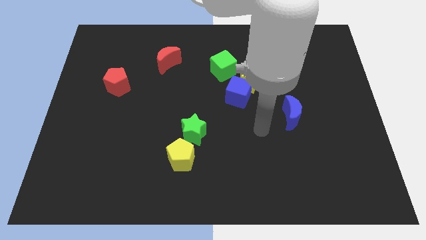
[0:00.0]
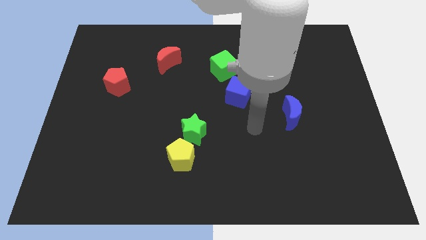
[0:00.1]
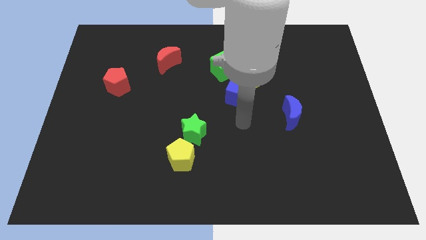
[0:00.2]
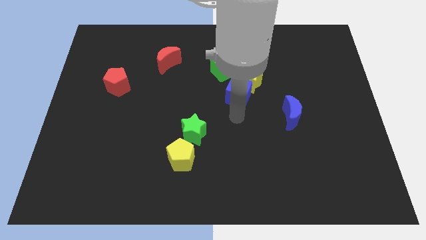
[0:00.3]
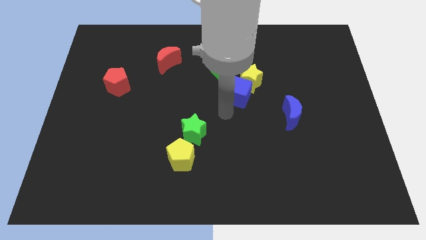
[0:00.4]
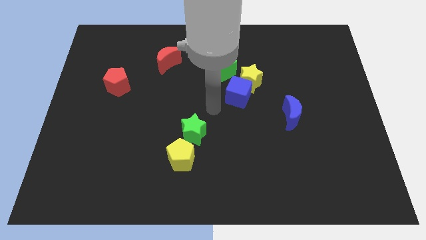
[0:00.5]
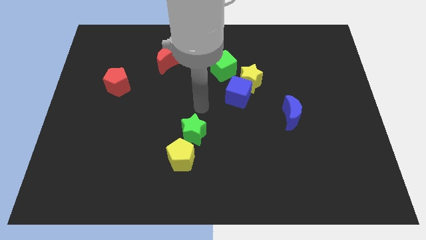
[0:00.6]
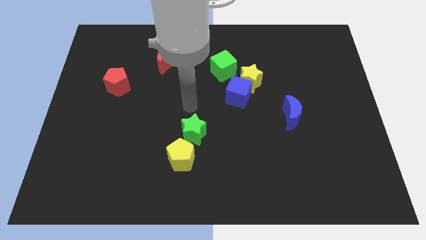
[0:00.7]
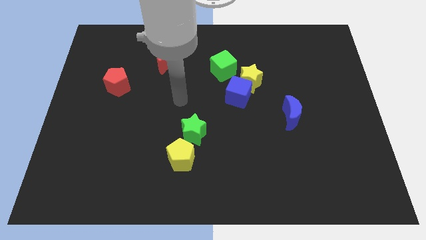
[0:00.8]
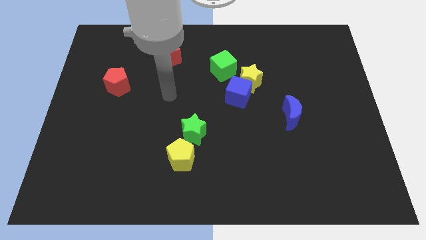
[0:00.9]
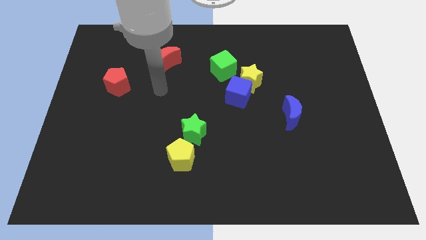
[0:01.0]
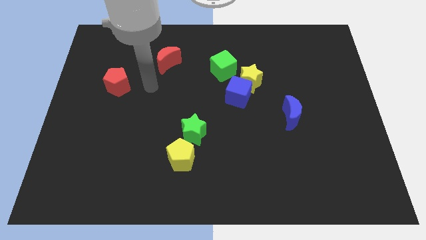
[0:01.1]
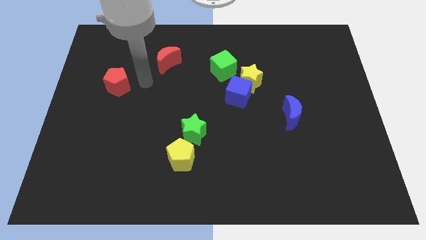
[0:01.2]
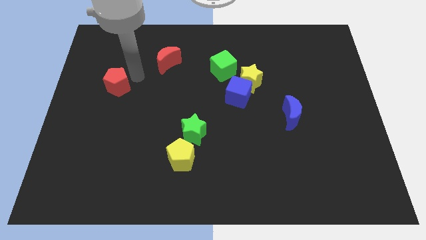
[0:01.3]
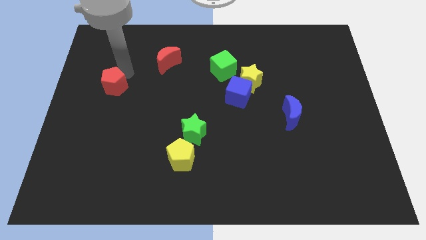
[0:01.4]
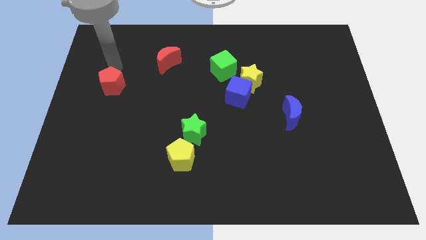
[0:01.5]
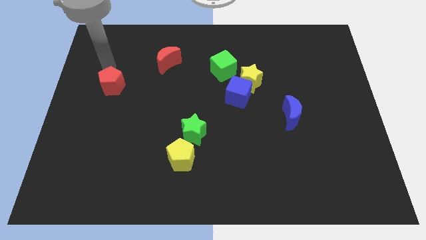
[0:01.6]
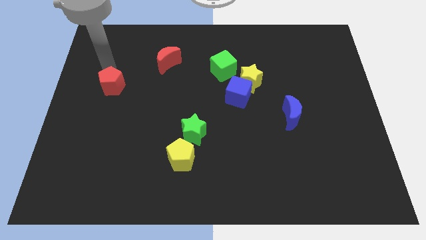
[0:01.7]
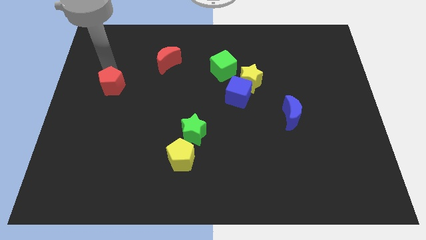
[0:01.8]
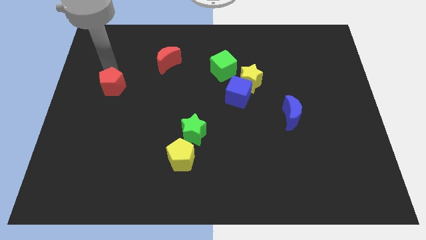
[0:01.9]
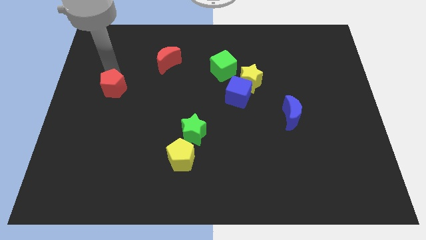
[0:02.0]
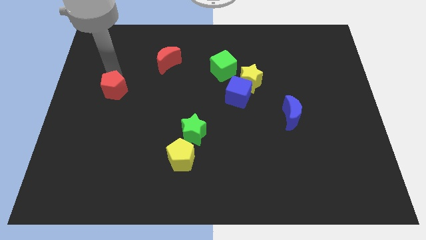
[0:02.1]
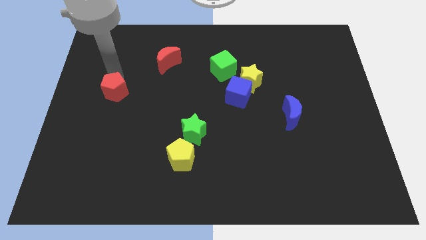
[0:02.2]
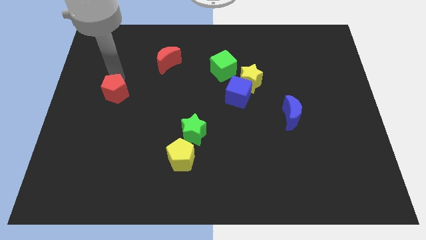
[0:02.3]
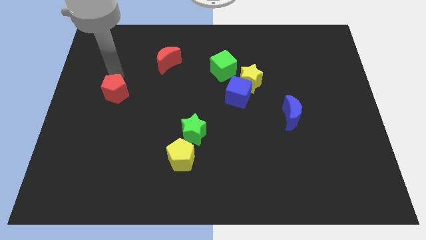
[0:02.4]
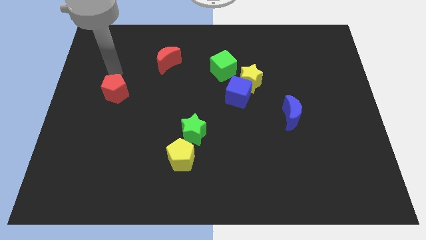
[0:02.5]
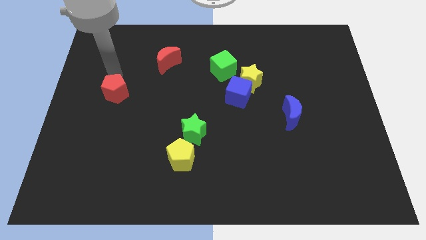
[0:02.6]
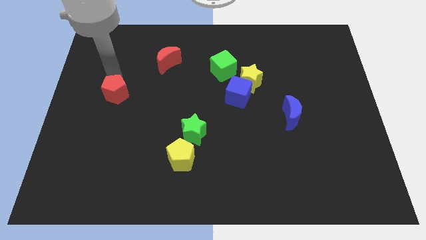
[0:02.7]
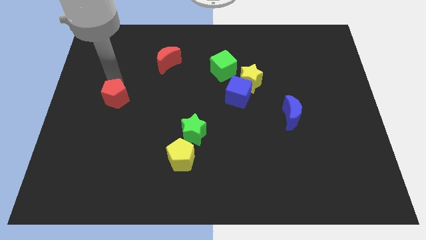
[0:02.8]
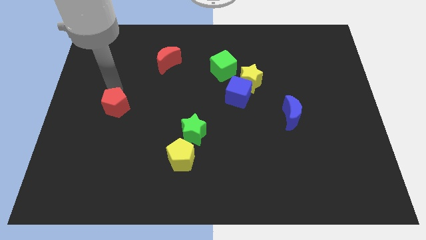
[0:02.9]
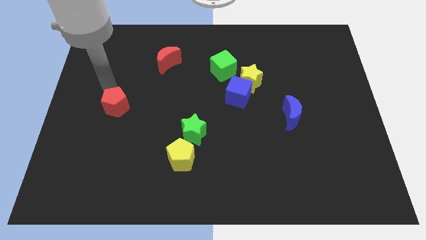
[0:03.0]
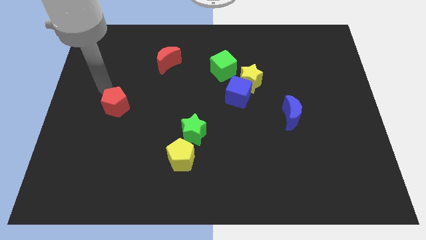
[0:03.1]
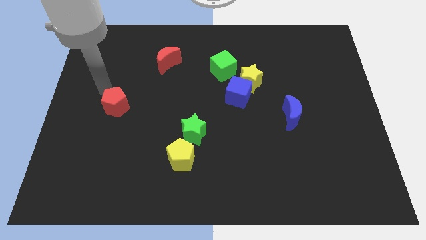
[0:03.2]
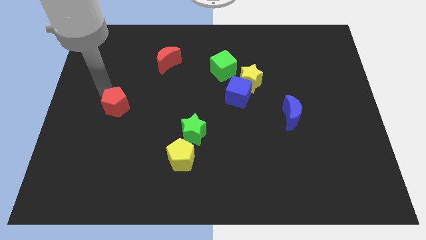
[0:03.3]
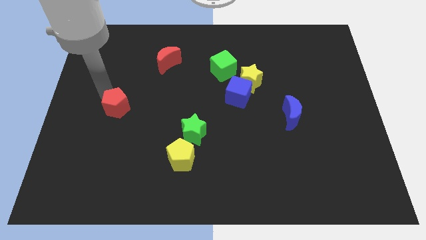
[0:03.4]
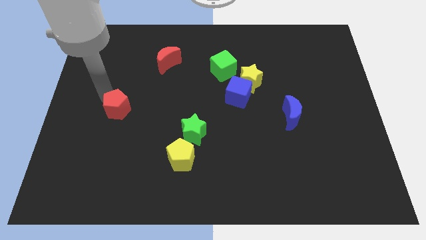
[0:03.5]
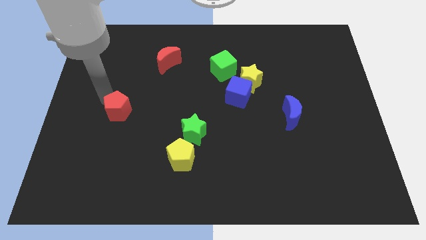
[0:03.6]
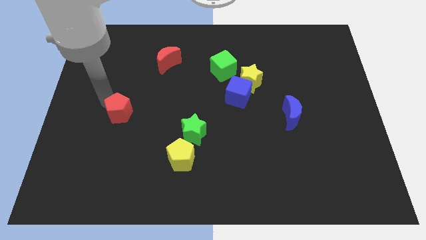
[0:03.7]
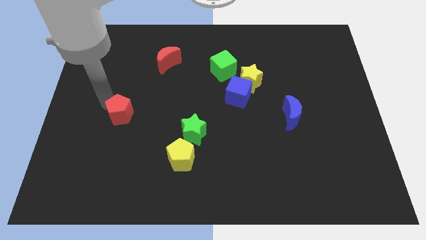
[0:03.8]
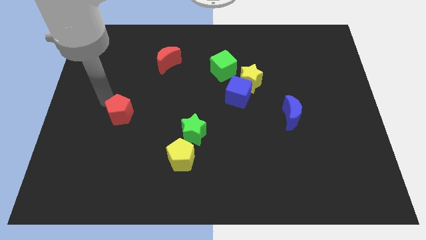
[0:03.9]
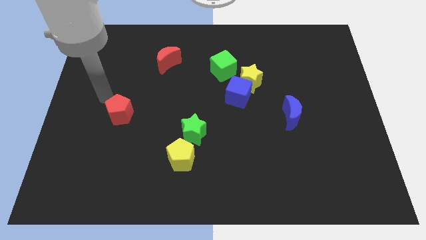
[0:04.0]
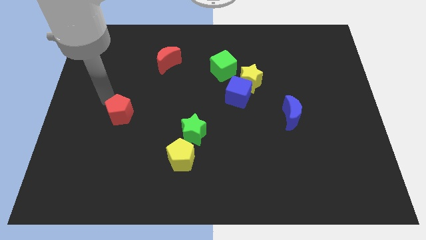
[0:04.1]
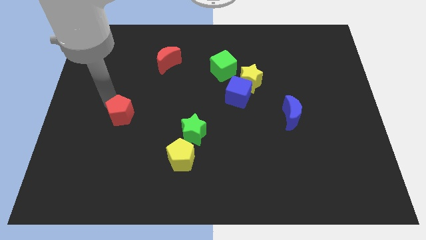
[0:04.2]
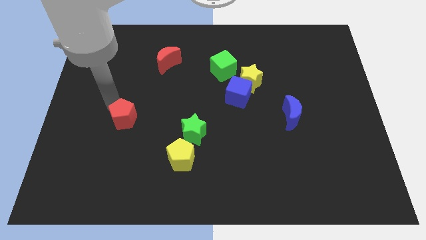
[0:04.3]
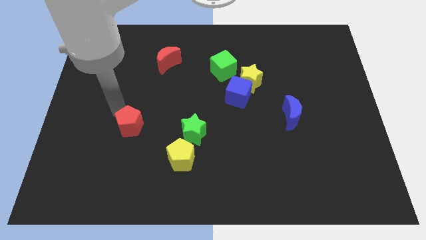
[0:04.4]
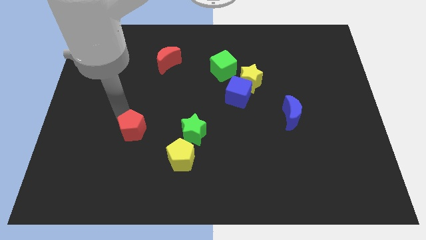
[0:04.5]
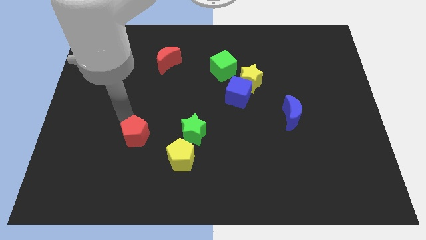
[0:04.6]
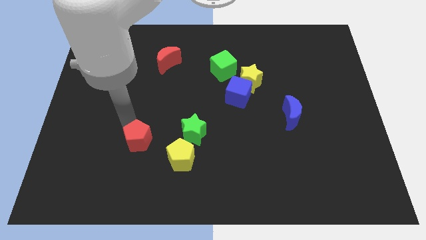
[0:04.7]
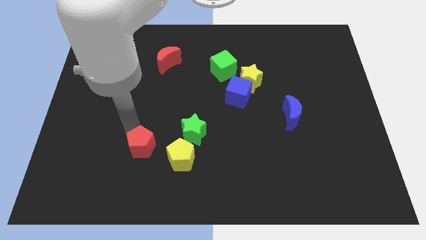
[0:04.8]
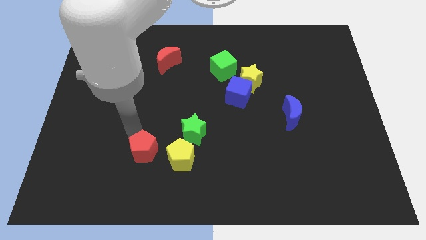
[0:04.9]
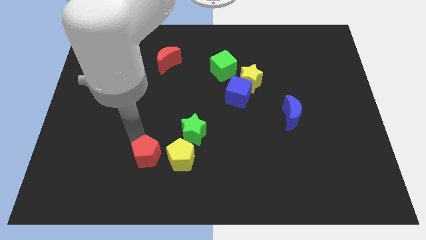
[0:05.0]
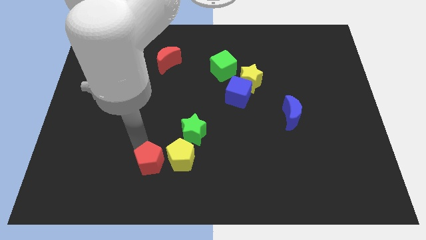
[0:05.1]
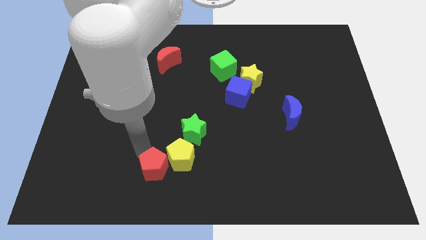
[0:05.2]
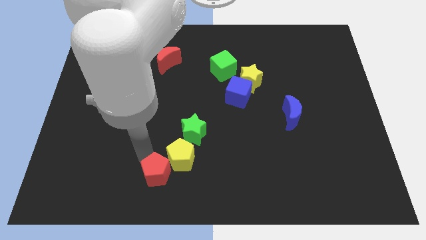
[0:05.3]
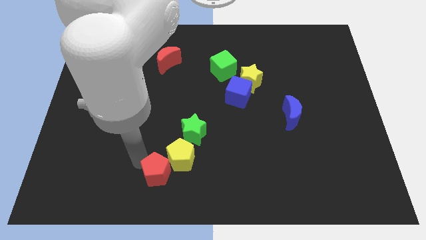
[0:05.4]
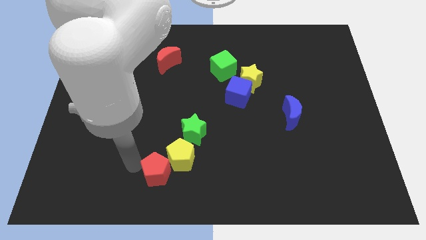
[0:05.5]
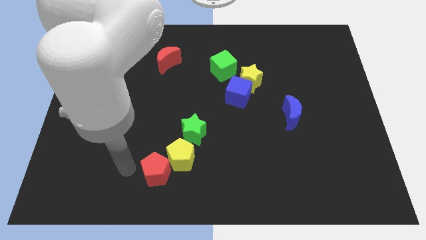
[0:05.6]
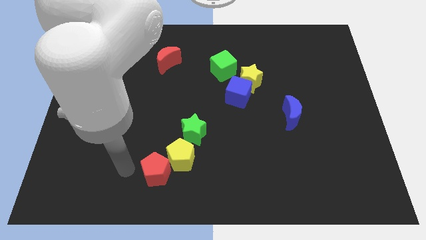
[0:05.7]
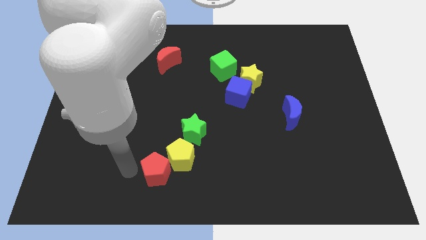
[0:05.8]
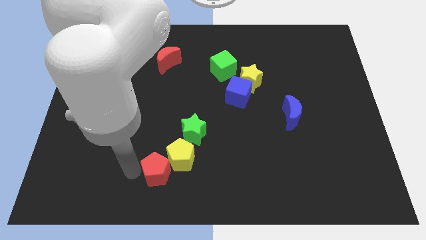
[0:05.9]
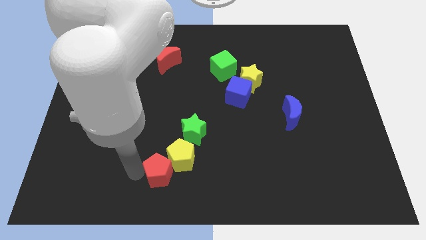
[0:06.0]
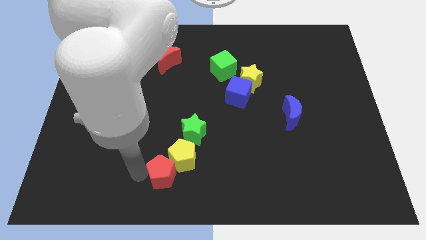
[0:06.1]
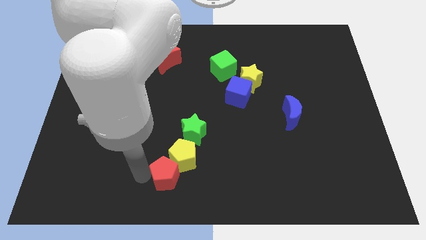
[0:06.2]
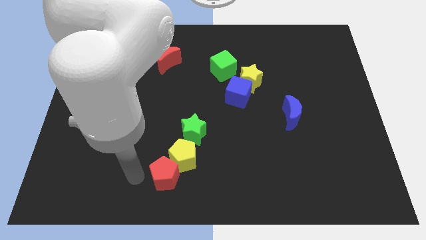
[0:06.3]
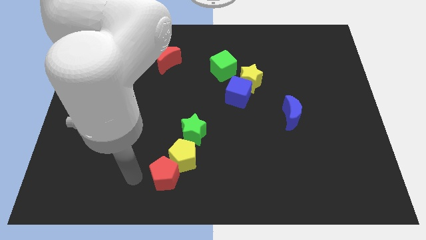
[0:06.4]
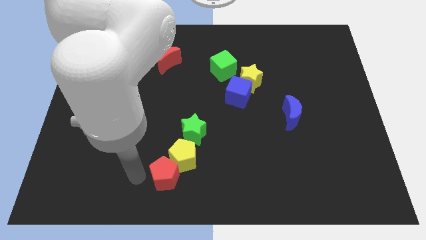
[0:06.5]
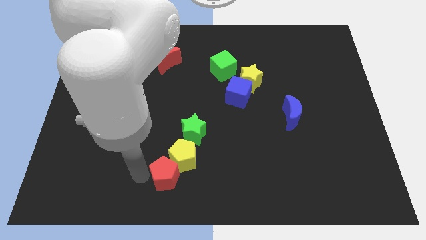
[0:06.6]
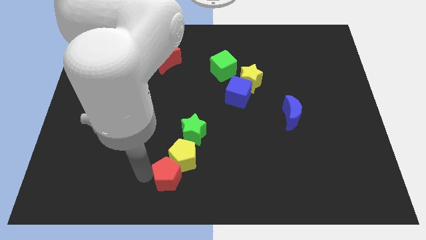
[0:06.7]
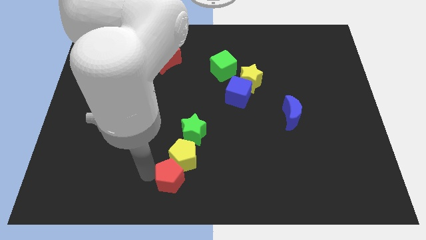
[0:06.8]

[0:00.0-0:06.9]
slide the red pentagon to the bottom side of the green star

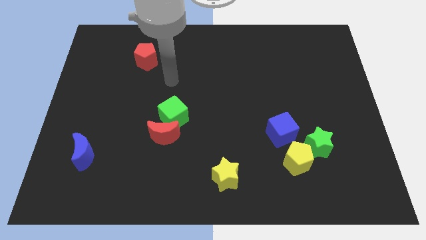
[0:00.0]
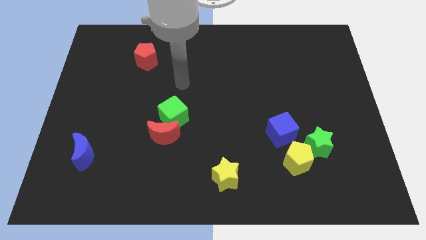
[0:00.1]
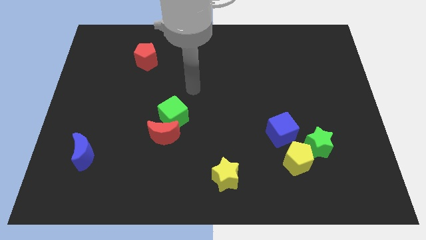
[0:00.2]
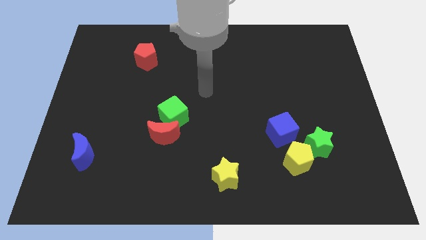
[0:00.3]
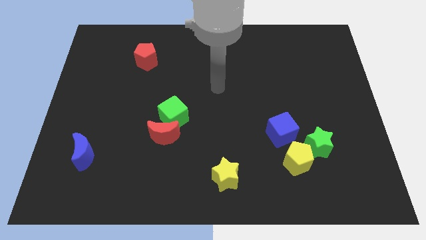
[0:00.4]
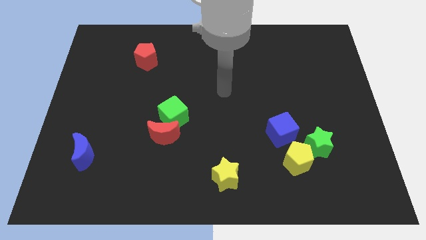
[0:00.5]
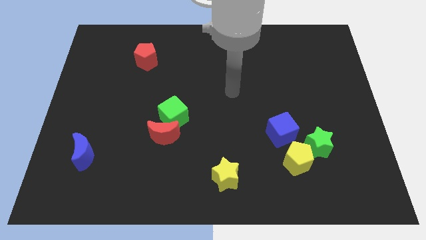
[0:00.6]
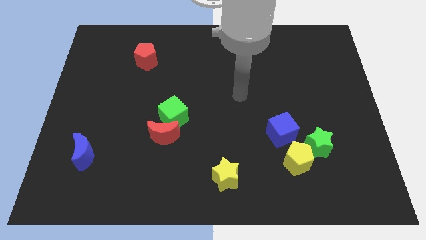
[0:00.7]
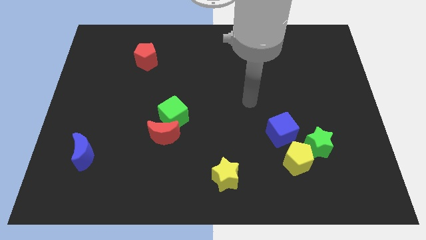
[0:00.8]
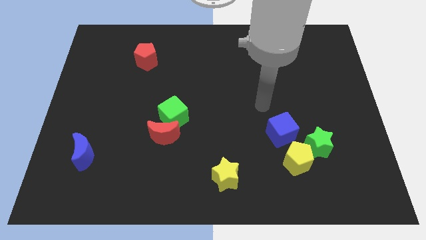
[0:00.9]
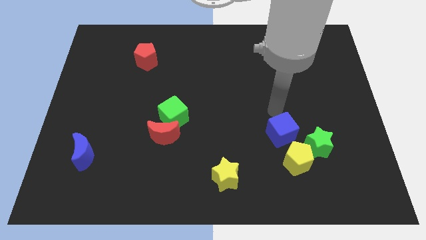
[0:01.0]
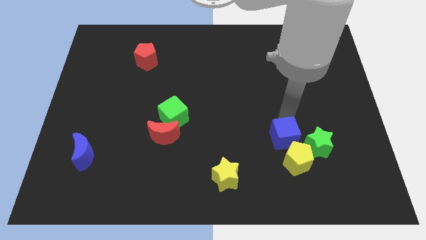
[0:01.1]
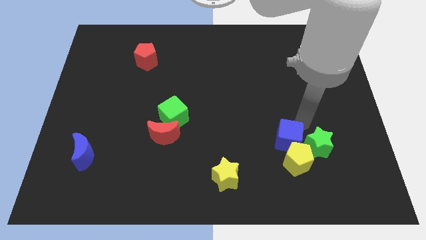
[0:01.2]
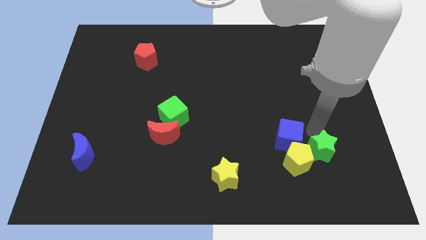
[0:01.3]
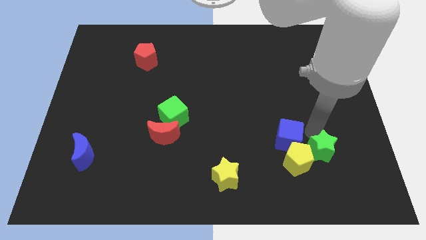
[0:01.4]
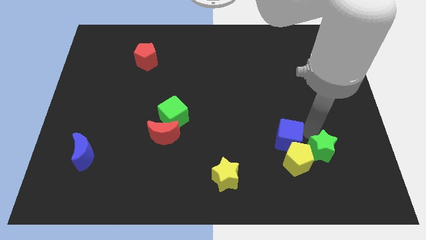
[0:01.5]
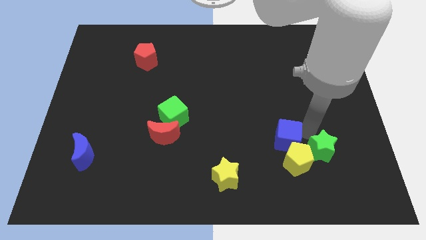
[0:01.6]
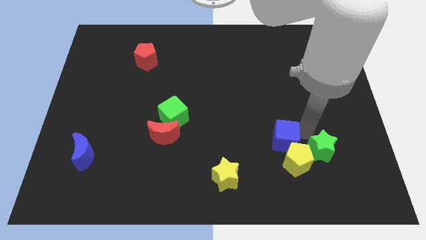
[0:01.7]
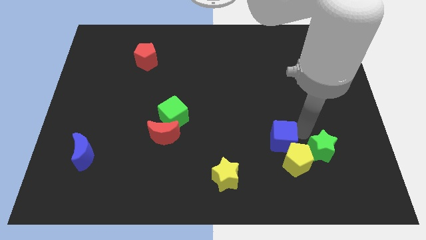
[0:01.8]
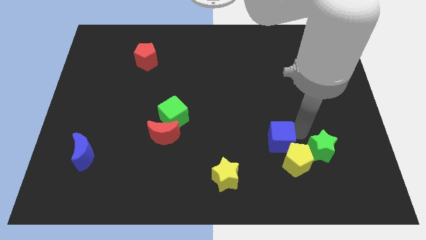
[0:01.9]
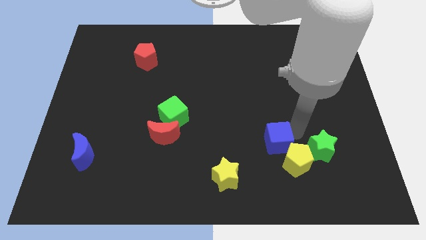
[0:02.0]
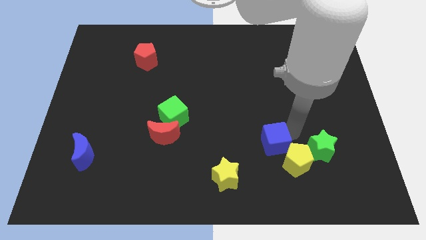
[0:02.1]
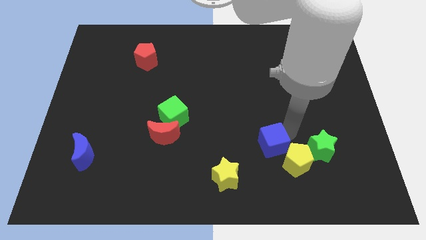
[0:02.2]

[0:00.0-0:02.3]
move the blue cube to the top right side of the yellow star
